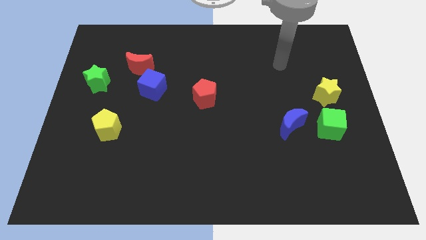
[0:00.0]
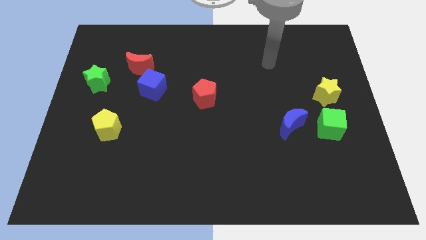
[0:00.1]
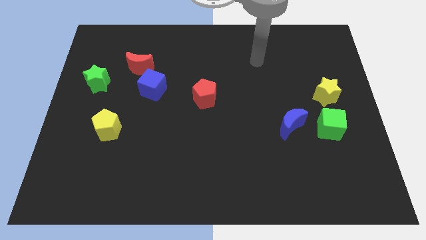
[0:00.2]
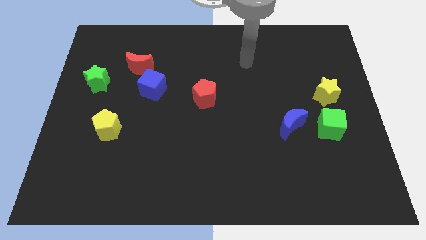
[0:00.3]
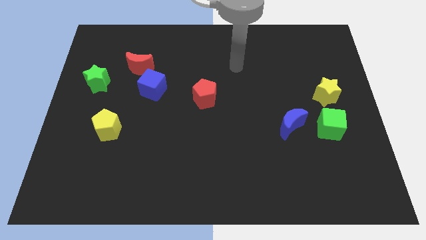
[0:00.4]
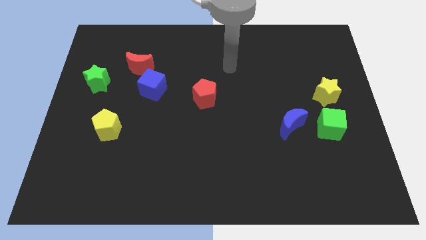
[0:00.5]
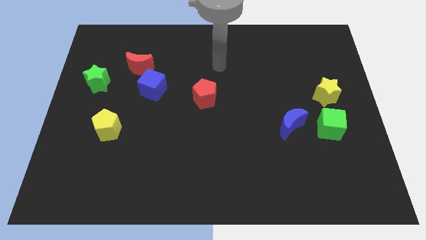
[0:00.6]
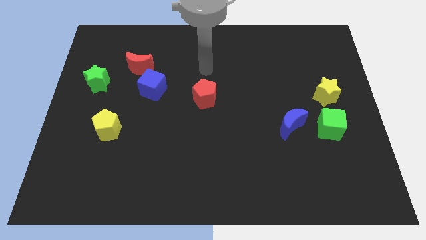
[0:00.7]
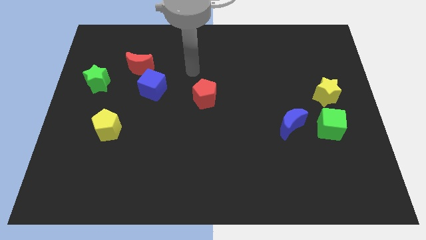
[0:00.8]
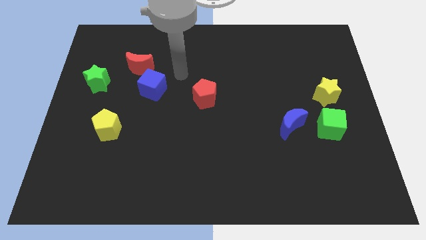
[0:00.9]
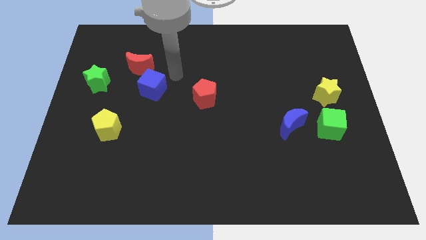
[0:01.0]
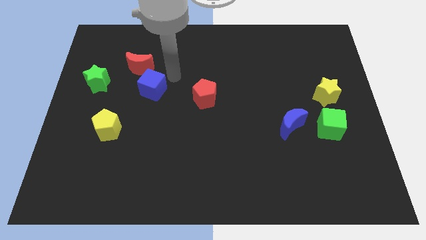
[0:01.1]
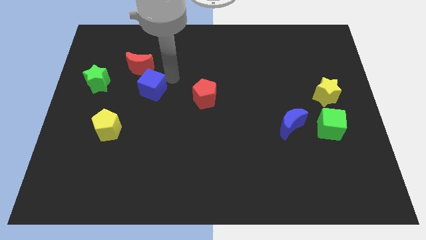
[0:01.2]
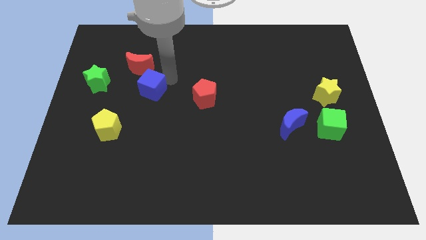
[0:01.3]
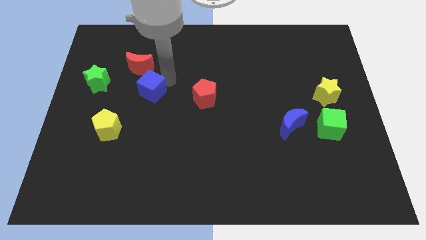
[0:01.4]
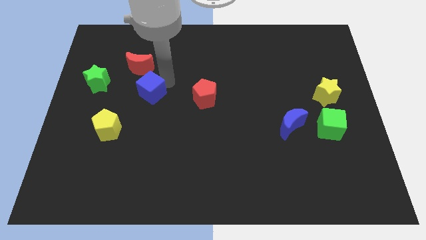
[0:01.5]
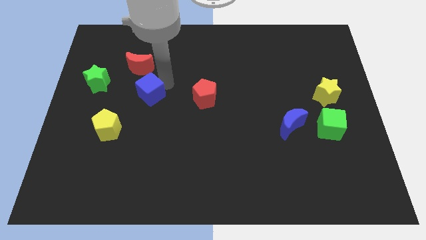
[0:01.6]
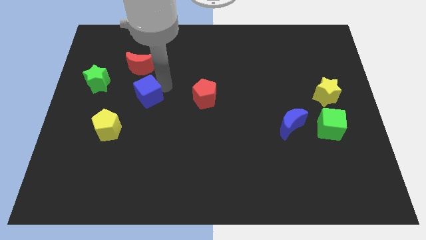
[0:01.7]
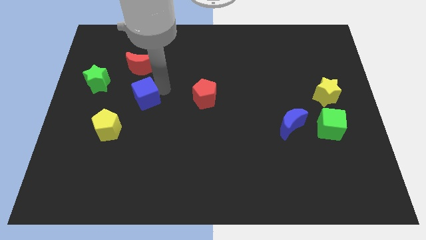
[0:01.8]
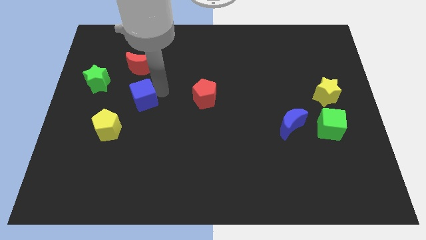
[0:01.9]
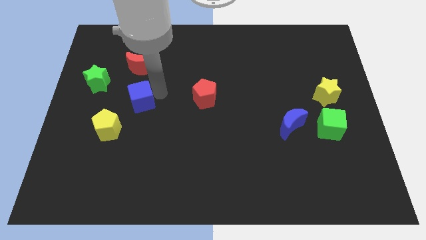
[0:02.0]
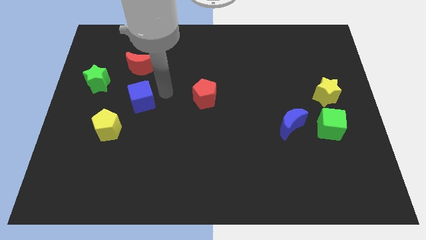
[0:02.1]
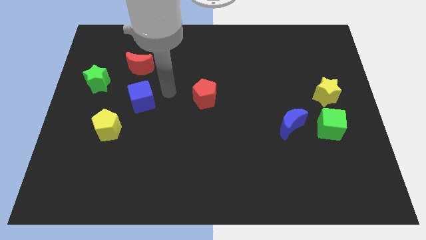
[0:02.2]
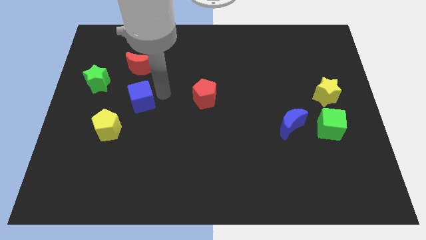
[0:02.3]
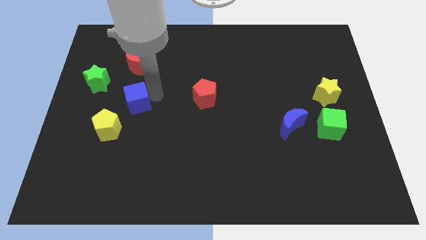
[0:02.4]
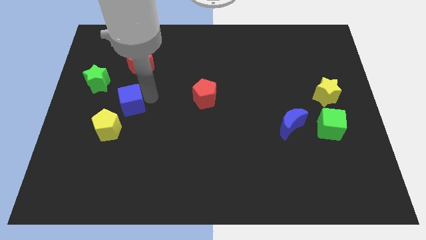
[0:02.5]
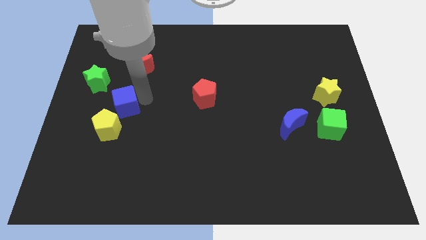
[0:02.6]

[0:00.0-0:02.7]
slightly push the blue cube down and to the left

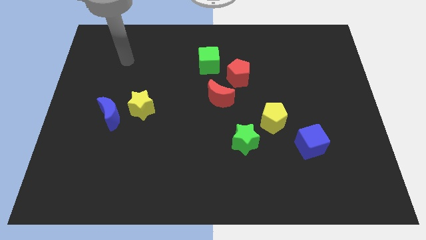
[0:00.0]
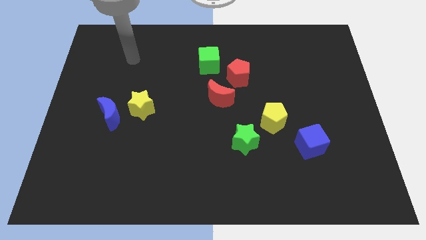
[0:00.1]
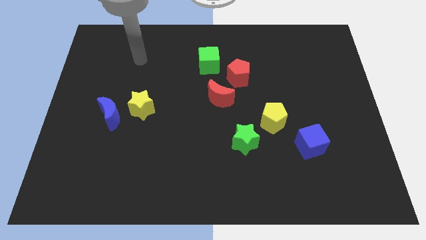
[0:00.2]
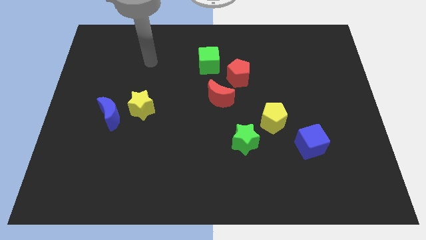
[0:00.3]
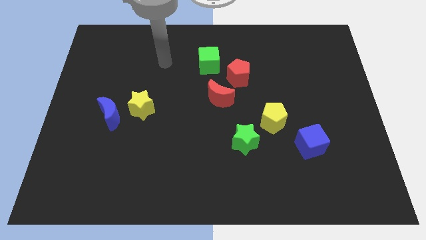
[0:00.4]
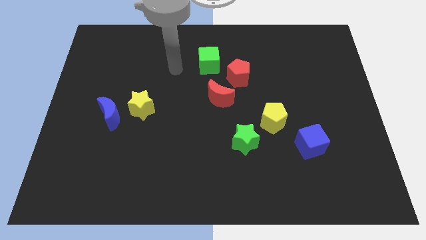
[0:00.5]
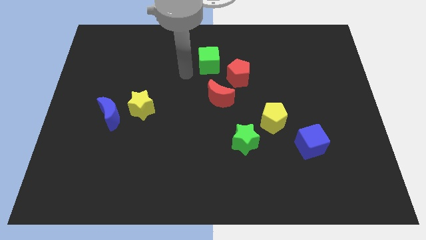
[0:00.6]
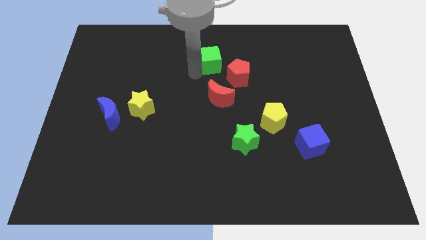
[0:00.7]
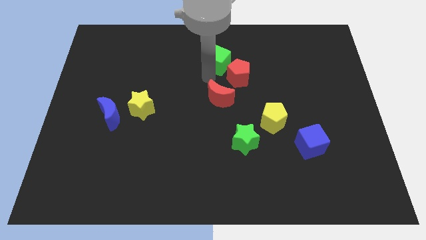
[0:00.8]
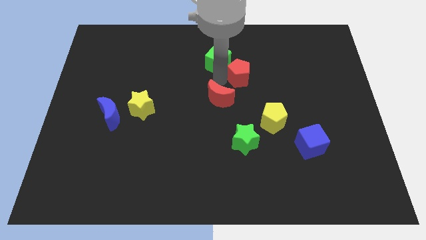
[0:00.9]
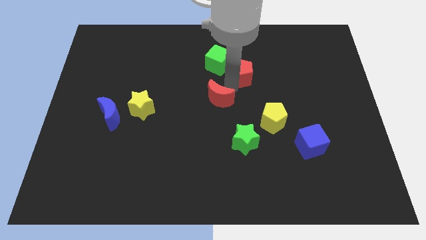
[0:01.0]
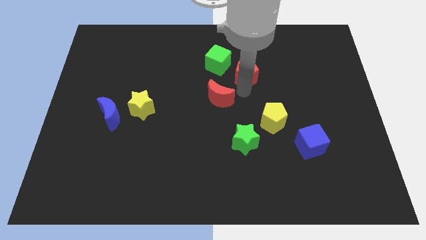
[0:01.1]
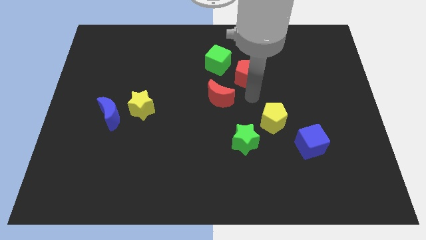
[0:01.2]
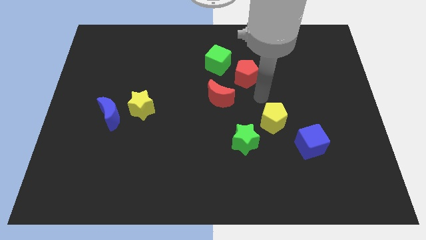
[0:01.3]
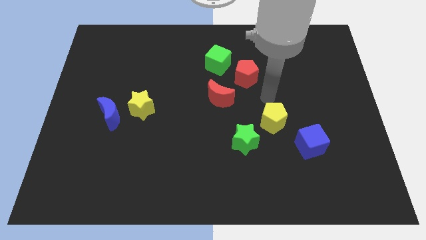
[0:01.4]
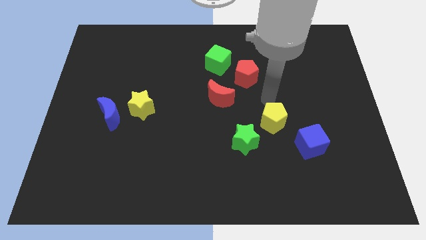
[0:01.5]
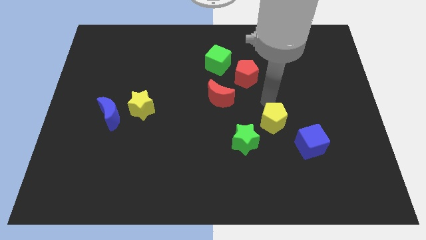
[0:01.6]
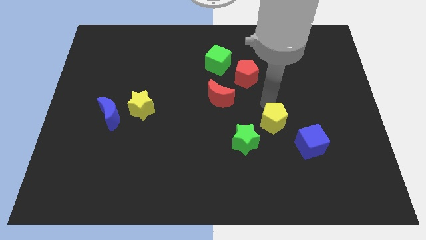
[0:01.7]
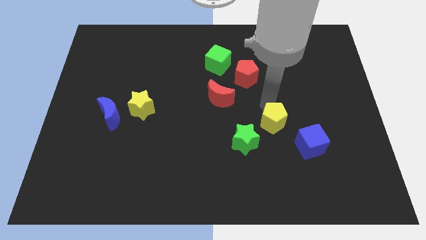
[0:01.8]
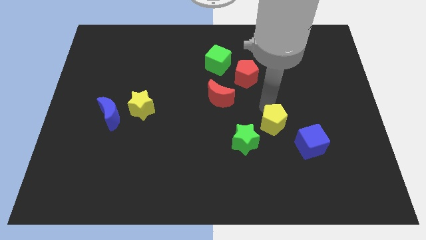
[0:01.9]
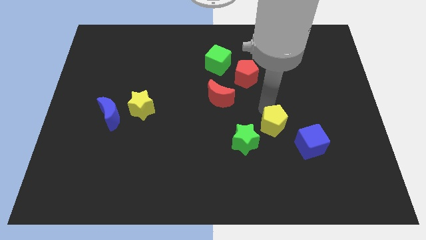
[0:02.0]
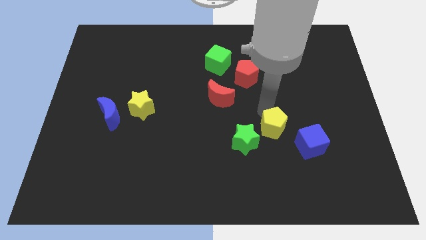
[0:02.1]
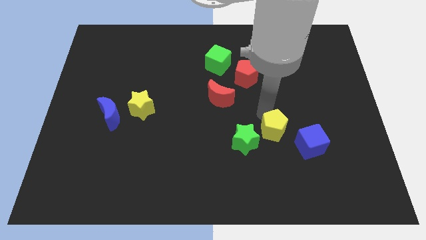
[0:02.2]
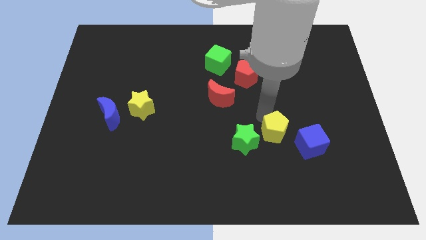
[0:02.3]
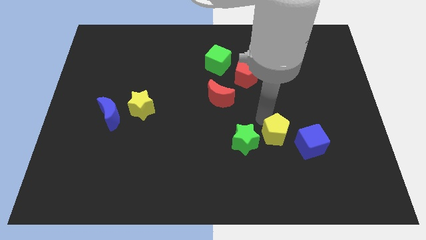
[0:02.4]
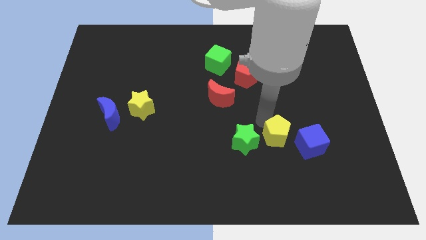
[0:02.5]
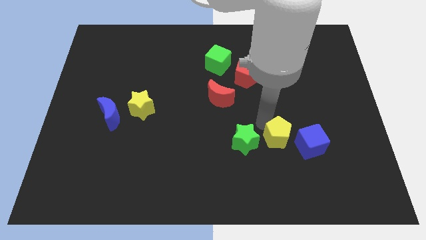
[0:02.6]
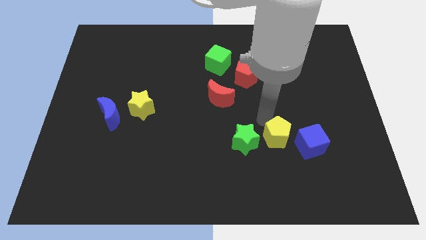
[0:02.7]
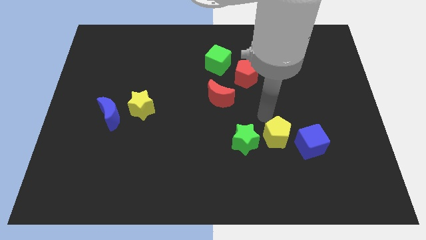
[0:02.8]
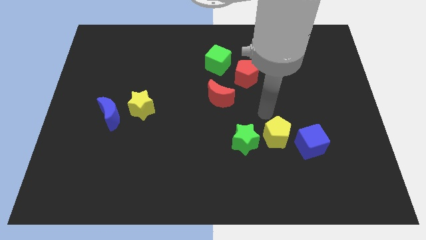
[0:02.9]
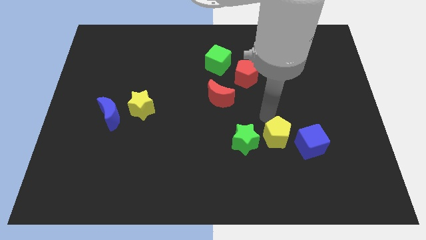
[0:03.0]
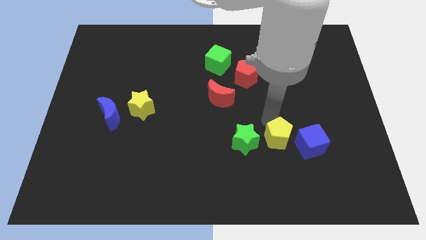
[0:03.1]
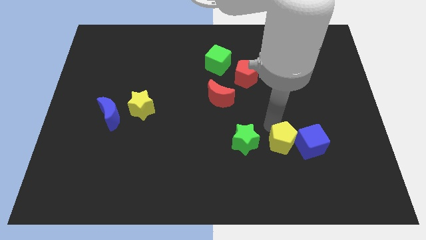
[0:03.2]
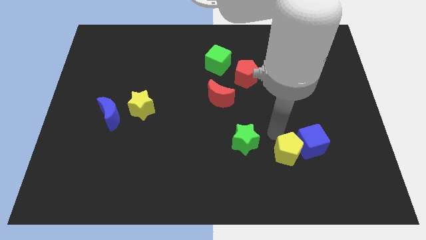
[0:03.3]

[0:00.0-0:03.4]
slightly slide the yellow pentagon downwards and then right

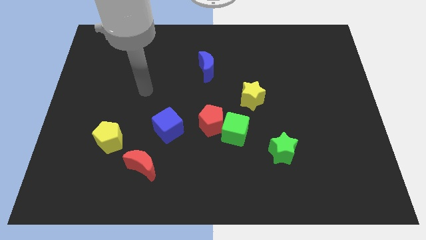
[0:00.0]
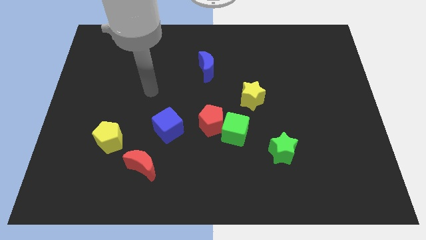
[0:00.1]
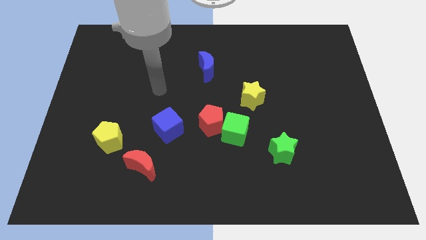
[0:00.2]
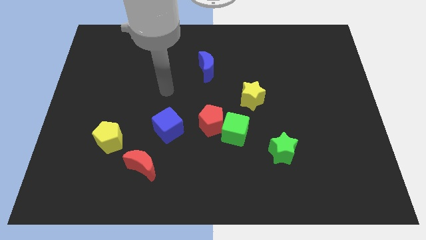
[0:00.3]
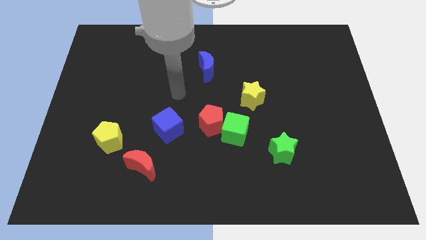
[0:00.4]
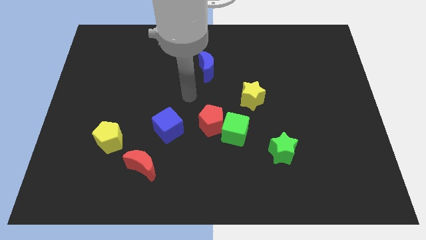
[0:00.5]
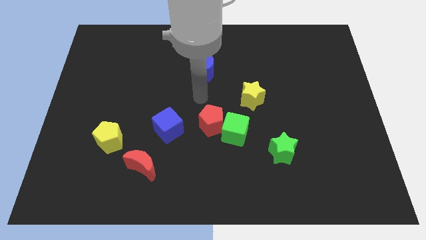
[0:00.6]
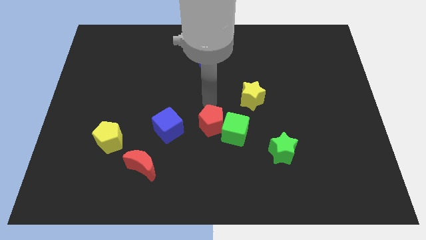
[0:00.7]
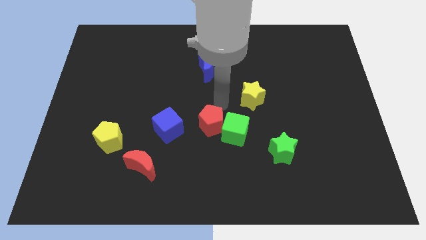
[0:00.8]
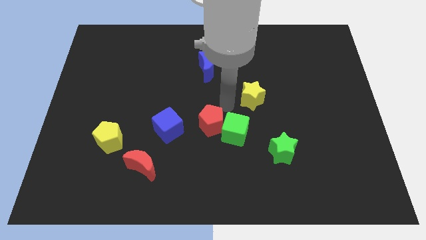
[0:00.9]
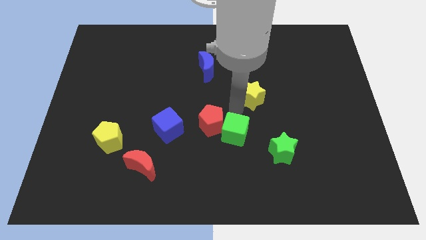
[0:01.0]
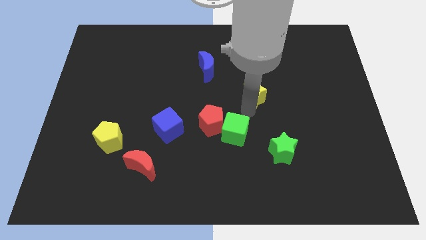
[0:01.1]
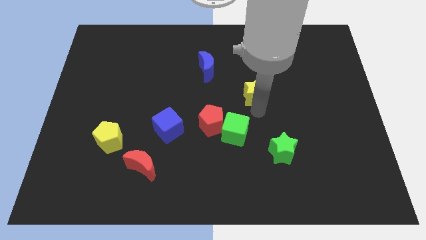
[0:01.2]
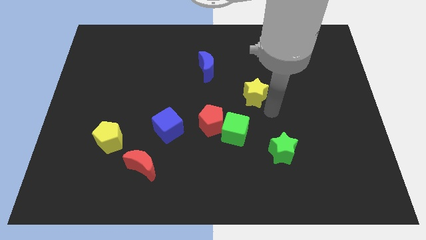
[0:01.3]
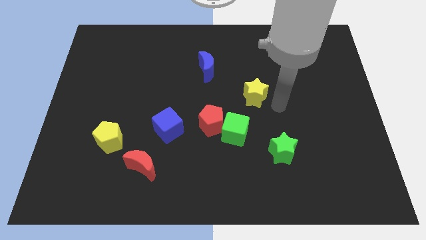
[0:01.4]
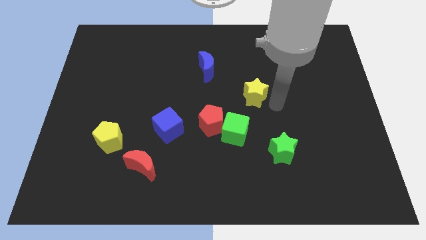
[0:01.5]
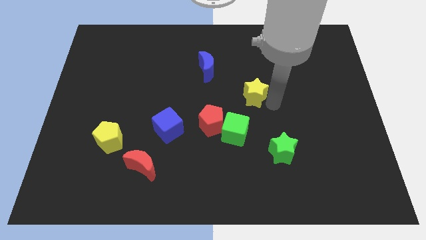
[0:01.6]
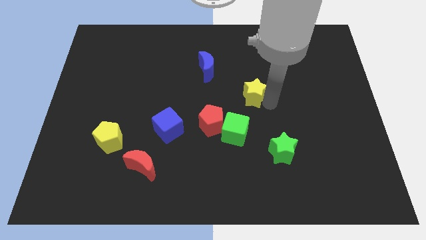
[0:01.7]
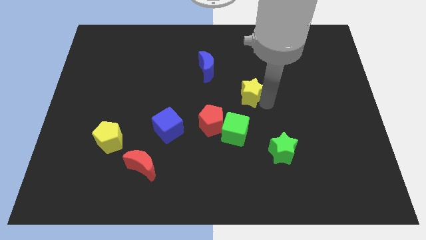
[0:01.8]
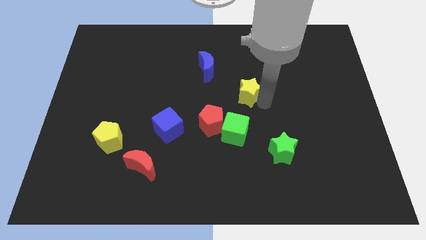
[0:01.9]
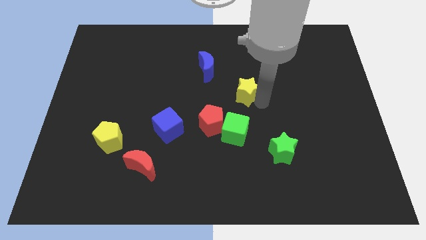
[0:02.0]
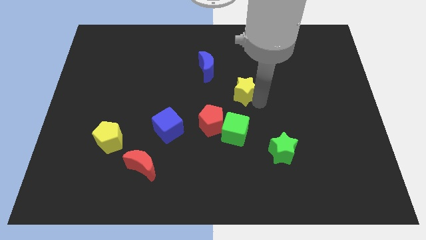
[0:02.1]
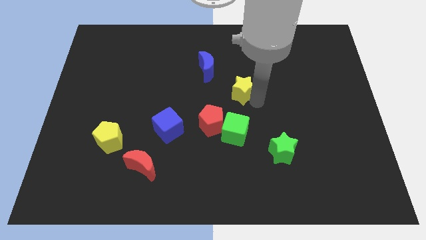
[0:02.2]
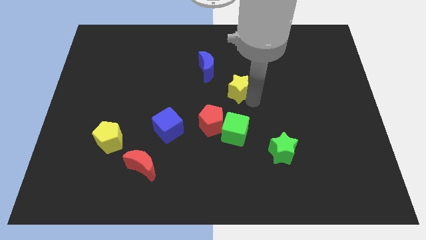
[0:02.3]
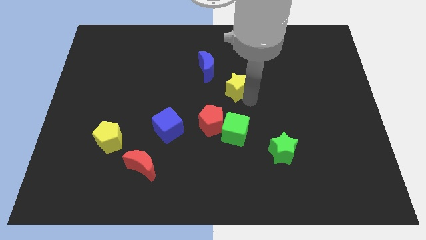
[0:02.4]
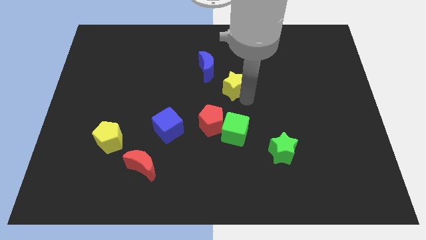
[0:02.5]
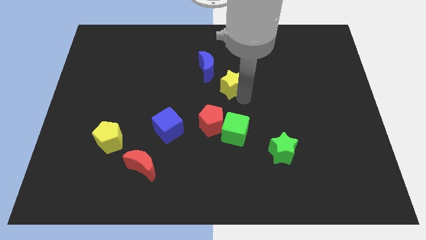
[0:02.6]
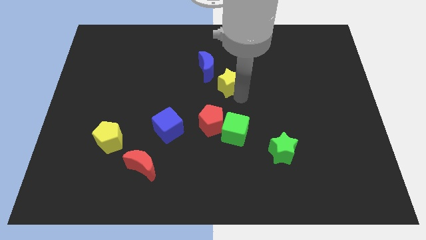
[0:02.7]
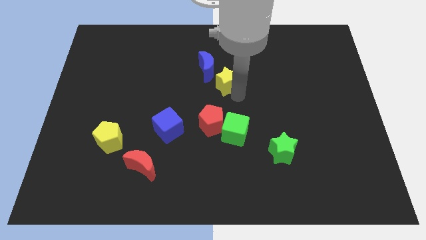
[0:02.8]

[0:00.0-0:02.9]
push the yellow star upwards and to the left diagonally a little bit
